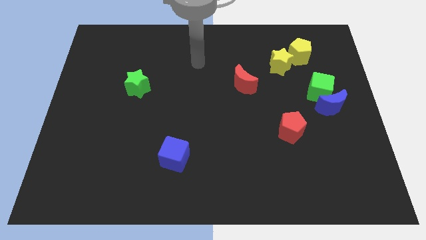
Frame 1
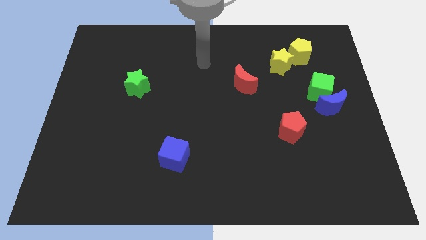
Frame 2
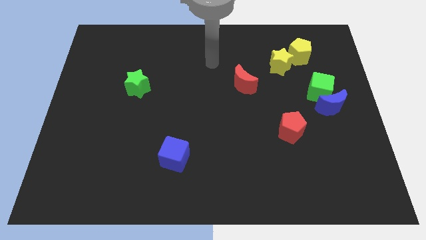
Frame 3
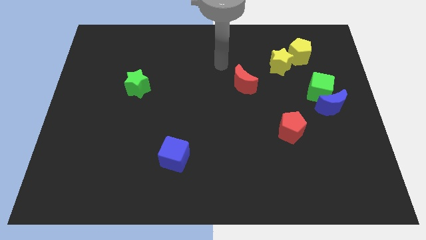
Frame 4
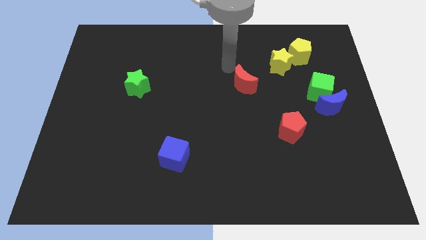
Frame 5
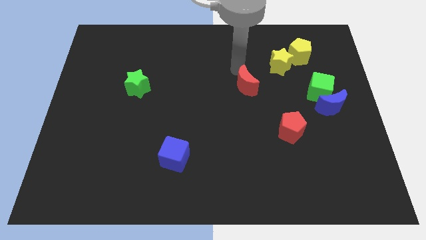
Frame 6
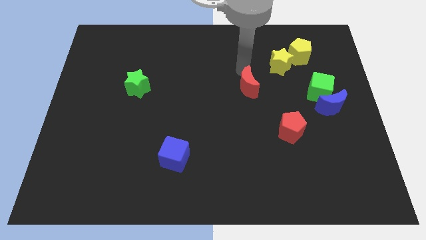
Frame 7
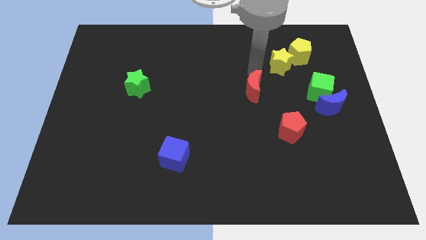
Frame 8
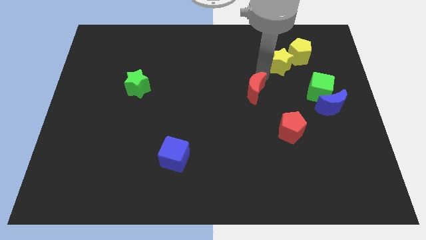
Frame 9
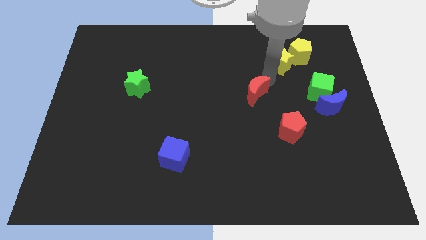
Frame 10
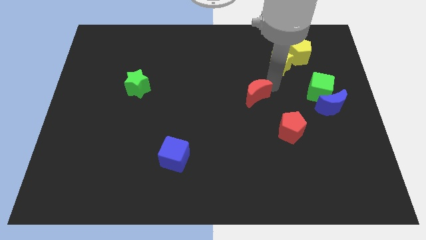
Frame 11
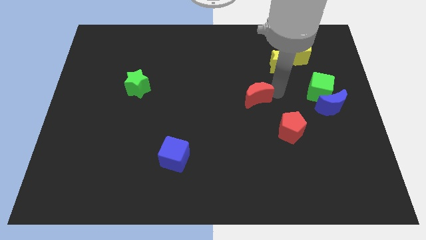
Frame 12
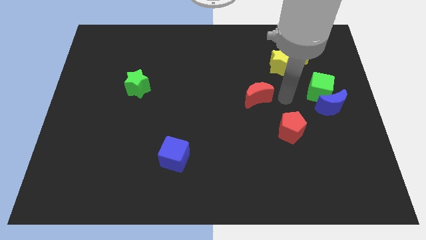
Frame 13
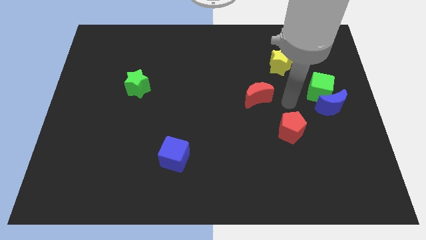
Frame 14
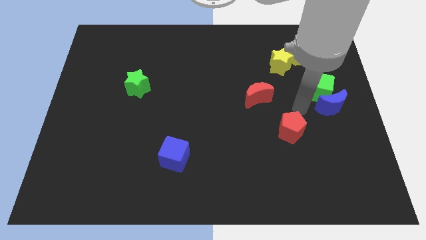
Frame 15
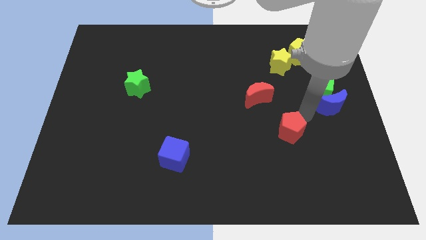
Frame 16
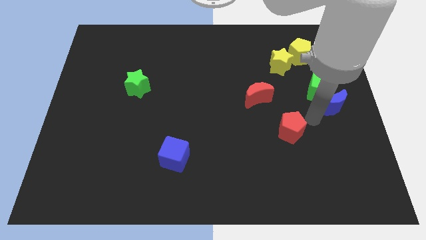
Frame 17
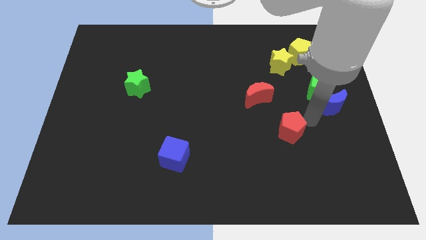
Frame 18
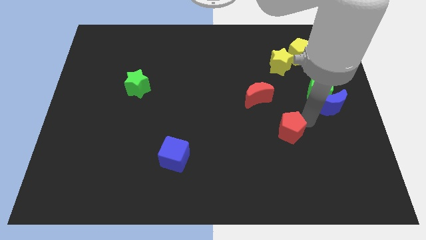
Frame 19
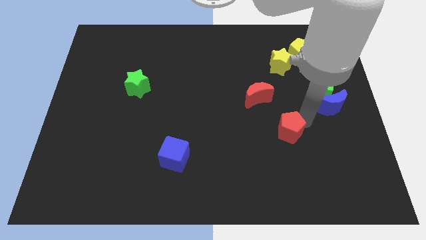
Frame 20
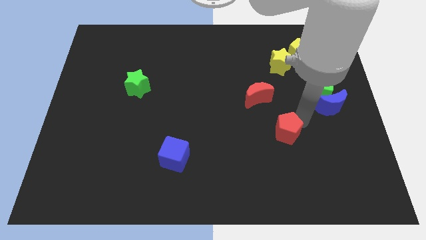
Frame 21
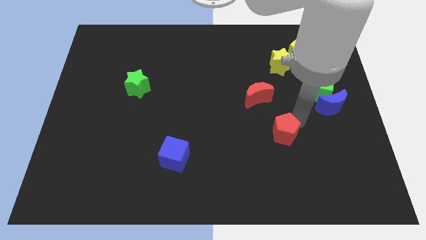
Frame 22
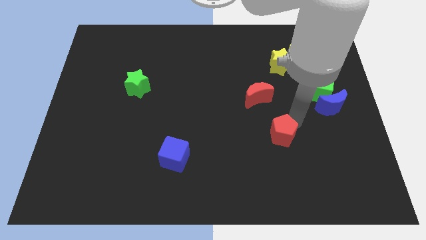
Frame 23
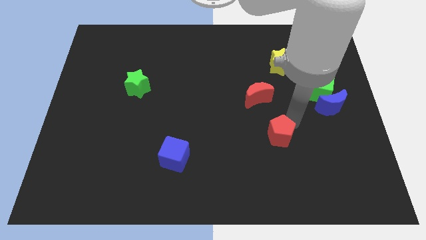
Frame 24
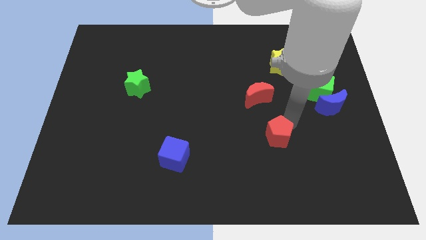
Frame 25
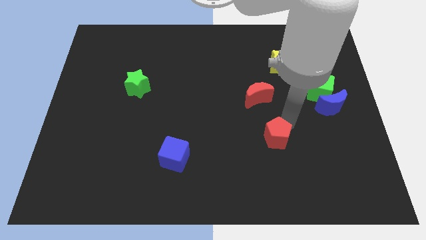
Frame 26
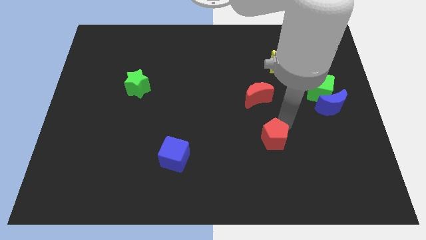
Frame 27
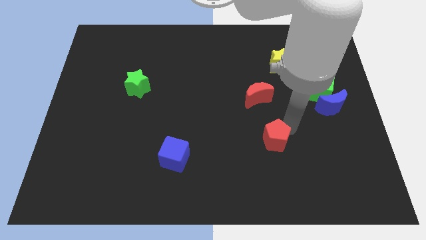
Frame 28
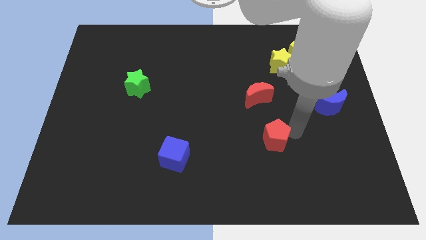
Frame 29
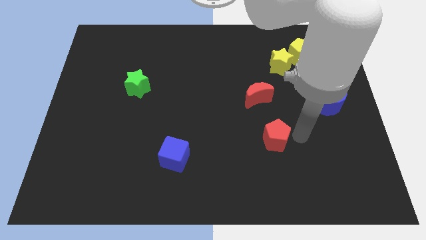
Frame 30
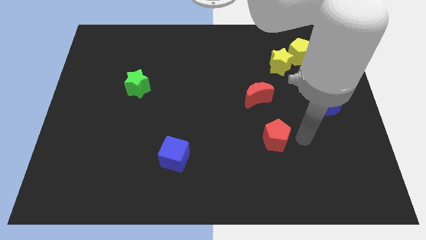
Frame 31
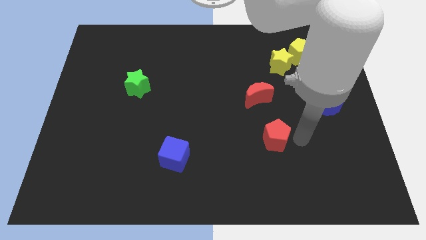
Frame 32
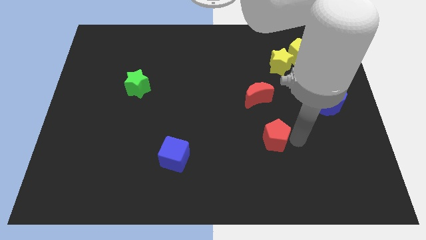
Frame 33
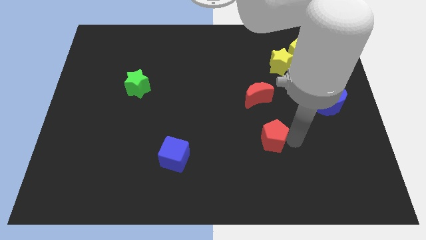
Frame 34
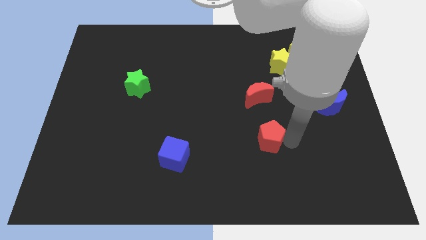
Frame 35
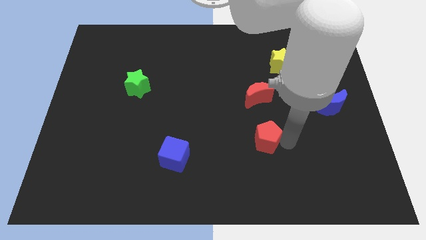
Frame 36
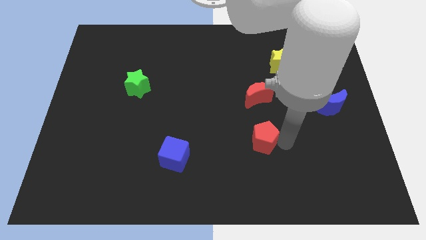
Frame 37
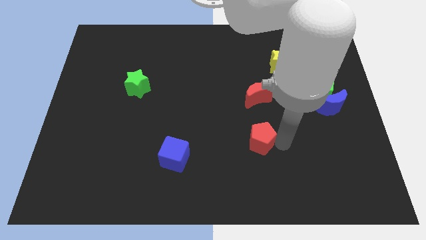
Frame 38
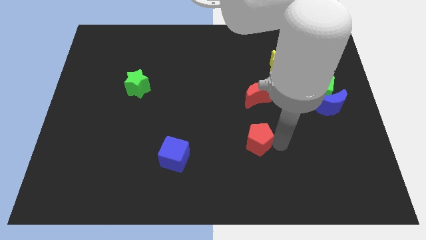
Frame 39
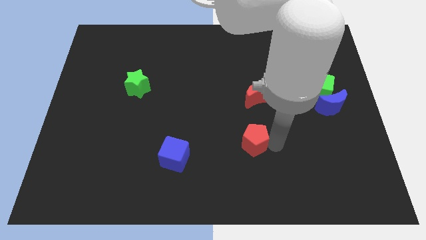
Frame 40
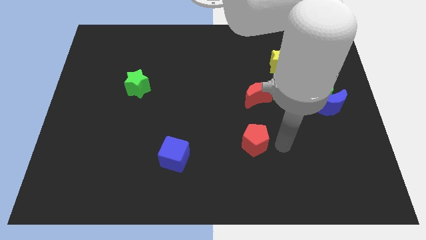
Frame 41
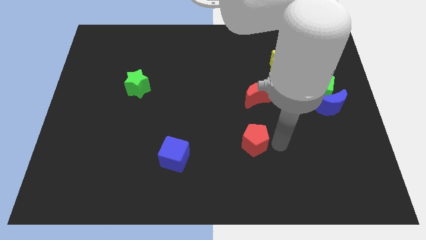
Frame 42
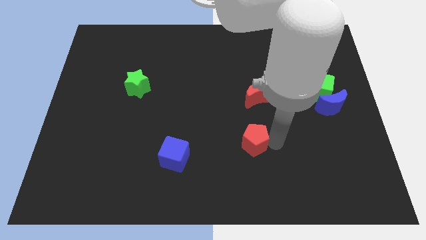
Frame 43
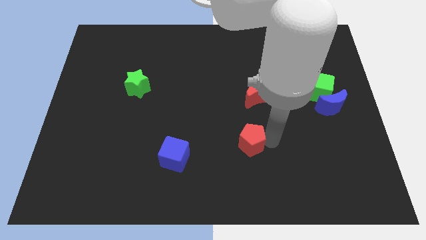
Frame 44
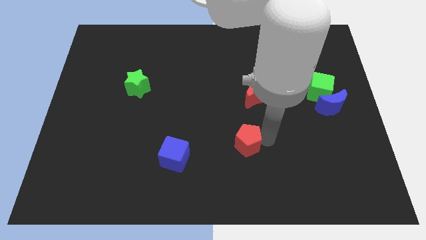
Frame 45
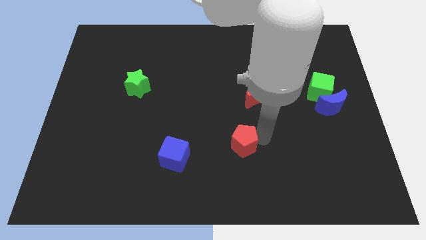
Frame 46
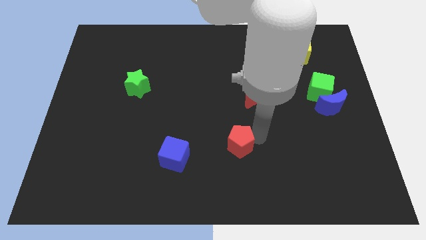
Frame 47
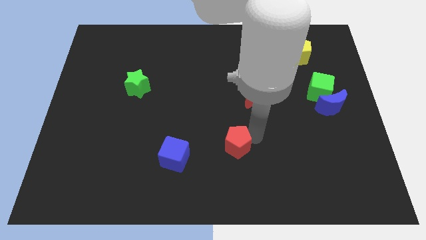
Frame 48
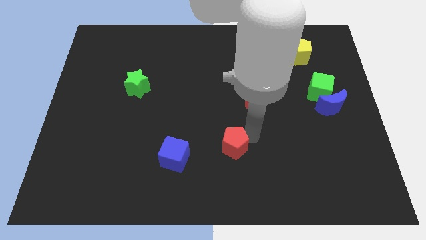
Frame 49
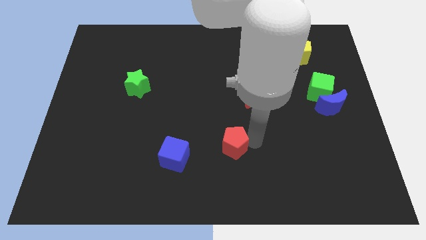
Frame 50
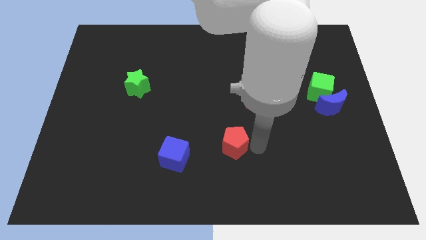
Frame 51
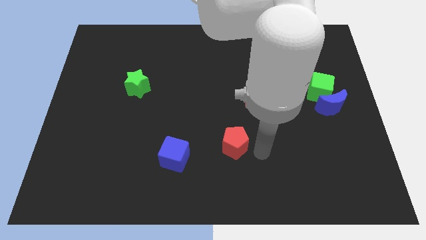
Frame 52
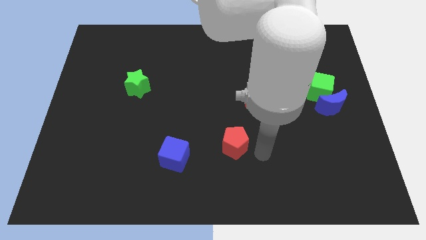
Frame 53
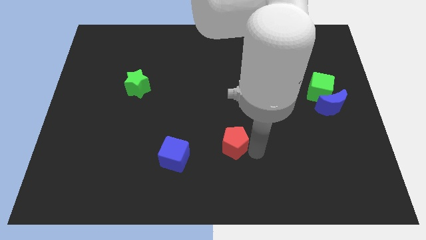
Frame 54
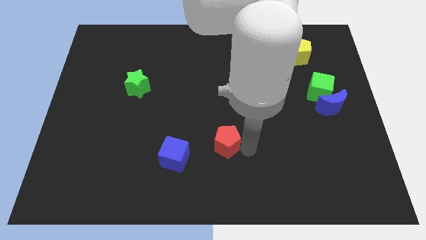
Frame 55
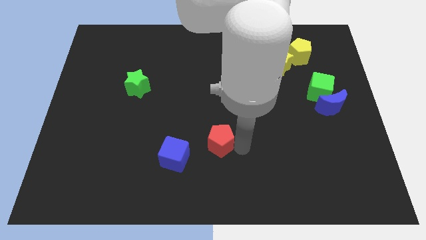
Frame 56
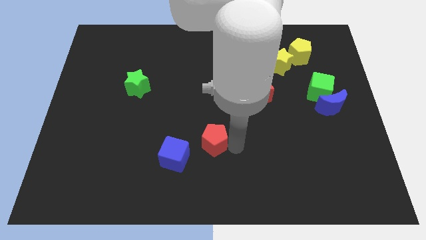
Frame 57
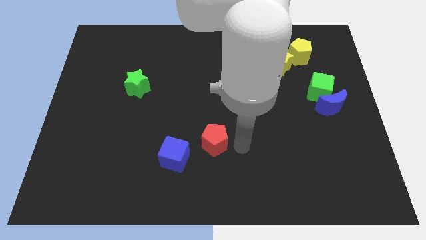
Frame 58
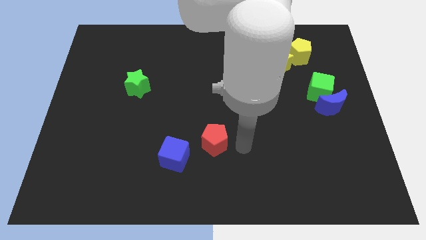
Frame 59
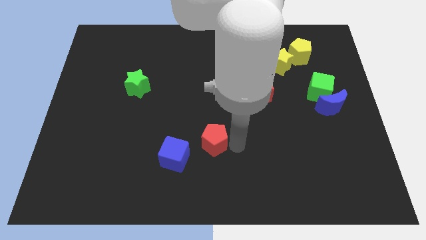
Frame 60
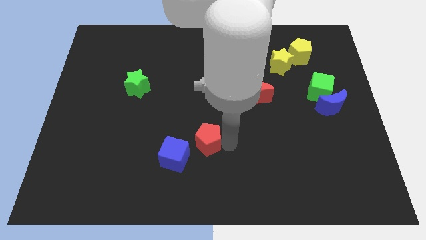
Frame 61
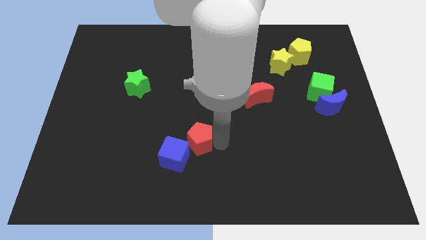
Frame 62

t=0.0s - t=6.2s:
move the red pentagon left

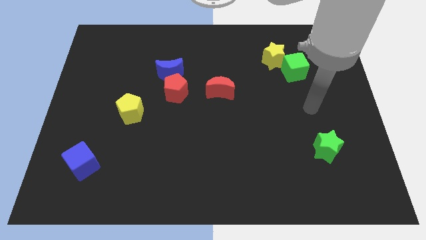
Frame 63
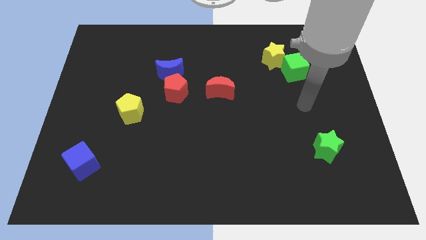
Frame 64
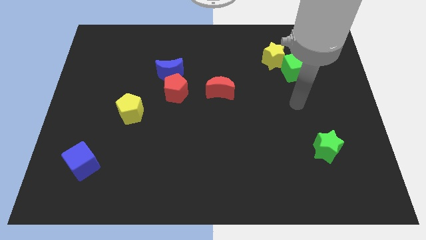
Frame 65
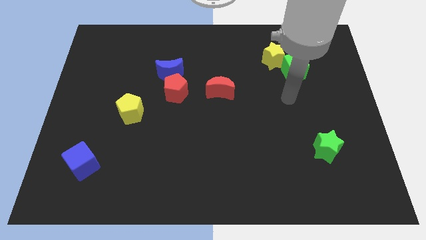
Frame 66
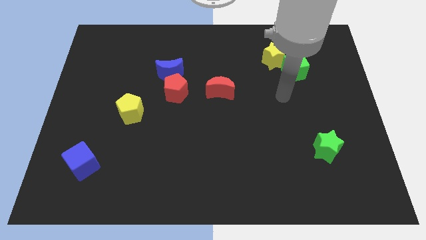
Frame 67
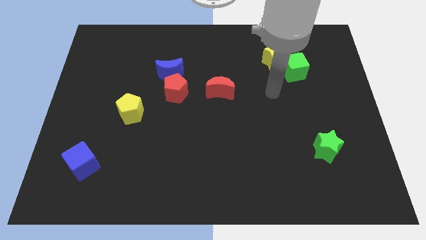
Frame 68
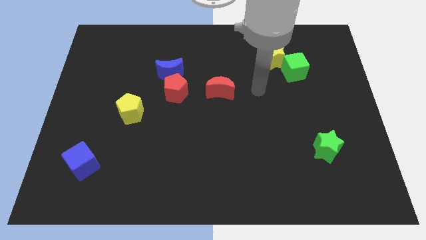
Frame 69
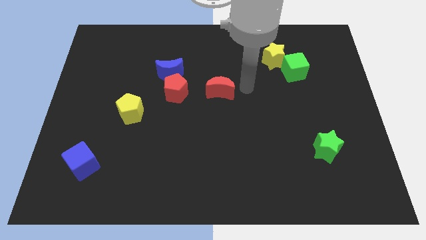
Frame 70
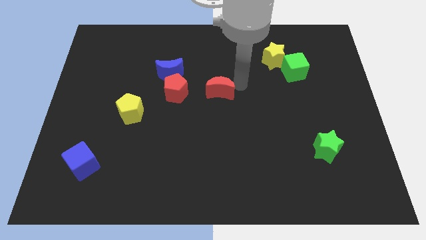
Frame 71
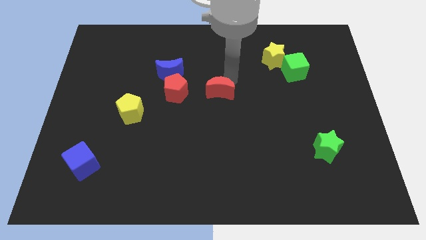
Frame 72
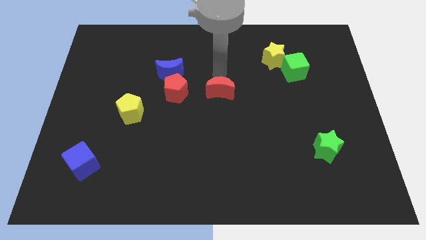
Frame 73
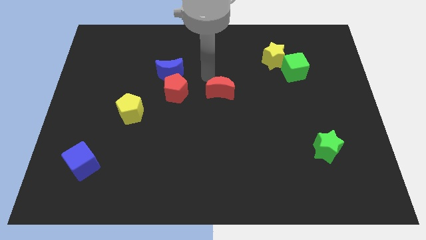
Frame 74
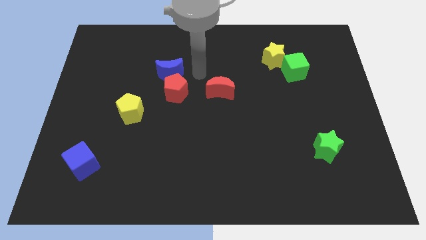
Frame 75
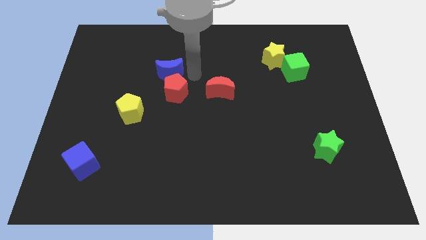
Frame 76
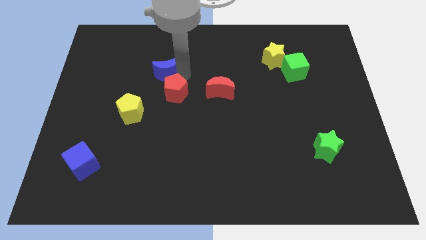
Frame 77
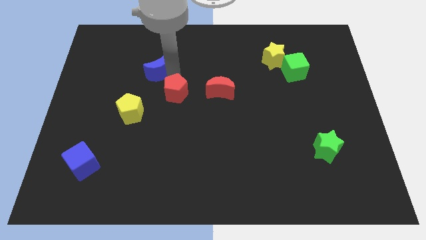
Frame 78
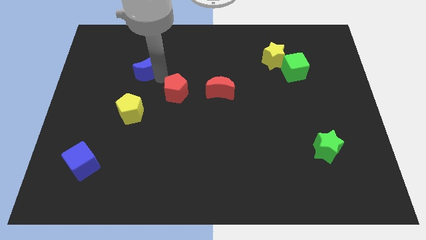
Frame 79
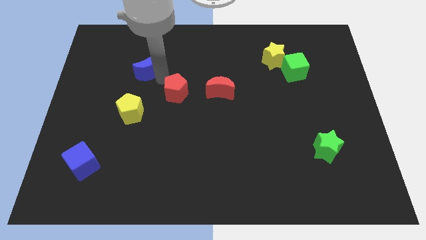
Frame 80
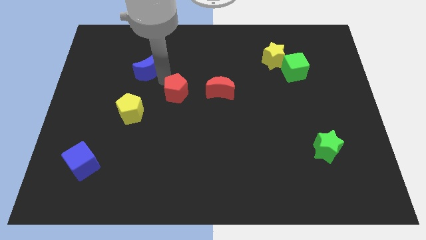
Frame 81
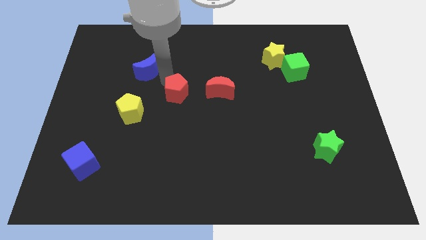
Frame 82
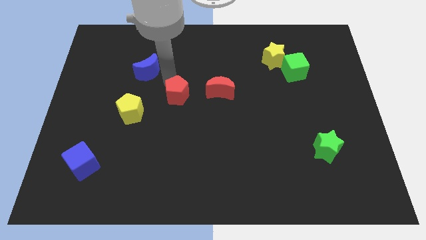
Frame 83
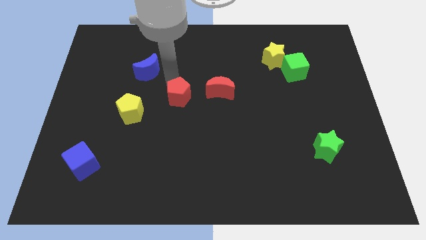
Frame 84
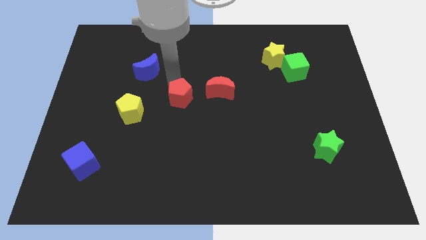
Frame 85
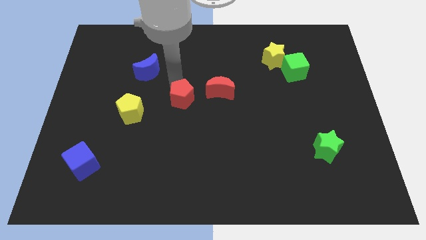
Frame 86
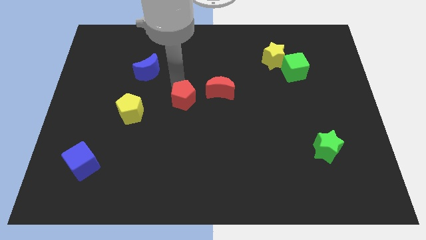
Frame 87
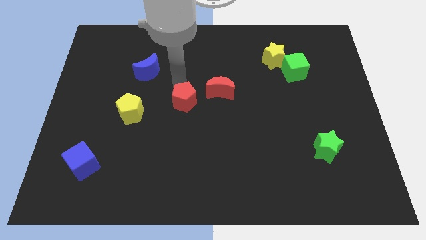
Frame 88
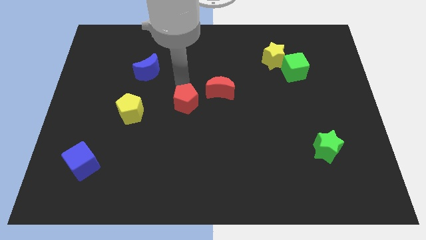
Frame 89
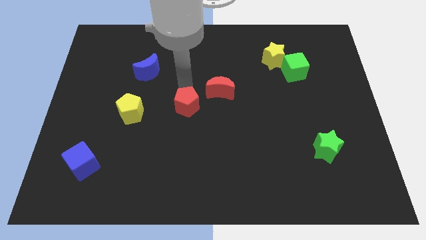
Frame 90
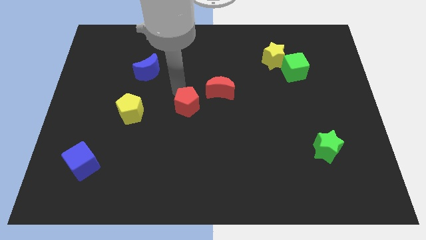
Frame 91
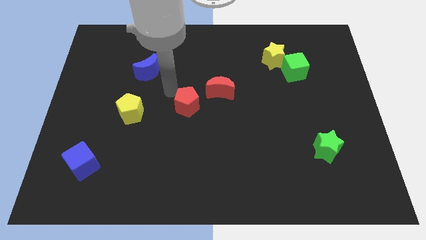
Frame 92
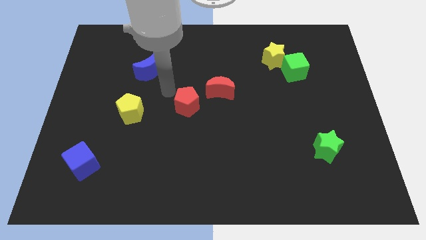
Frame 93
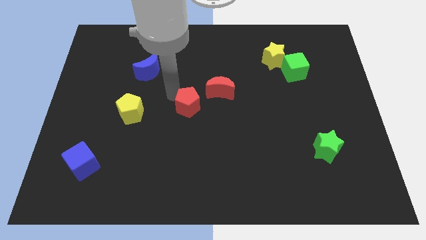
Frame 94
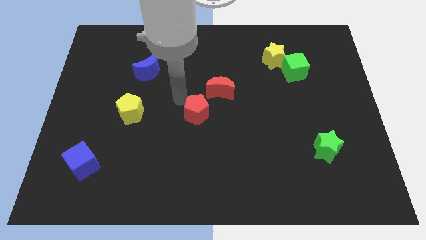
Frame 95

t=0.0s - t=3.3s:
move the red pentagon downwards and right diagonally a bit
